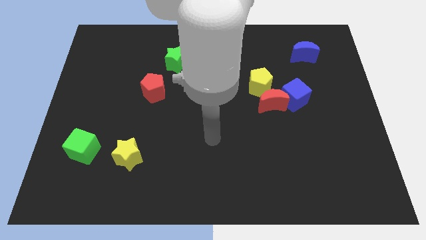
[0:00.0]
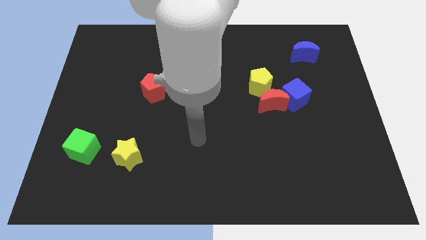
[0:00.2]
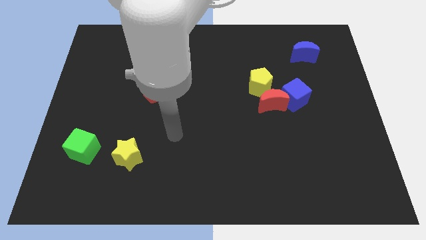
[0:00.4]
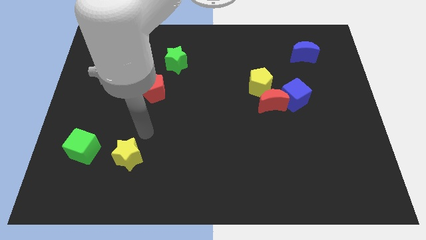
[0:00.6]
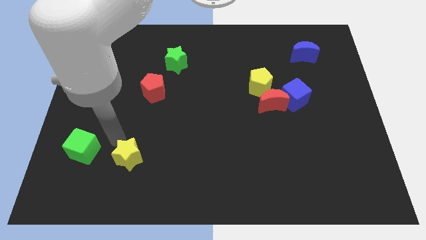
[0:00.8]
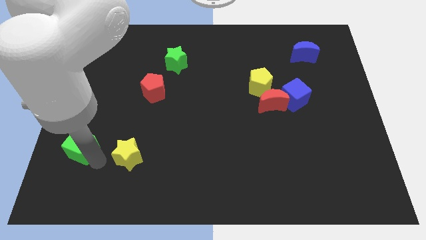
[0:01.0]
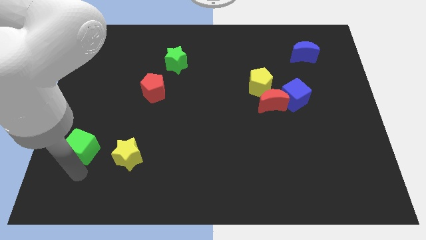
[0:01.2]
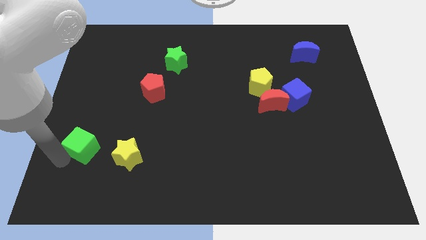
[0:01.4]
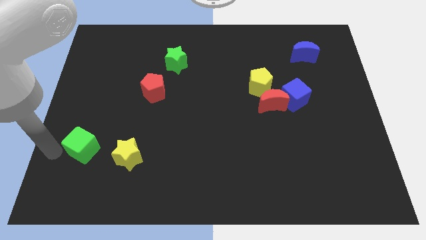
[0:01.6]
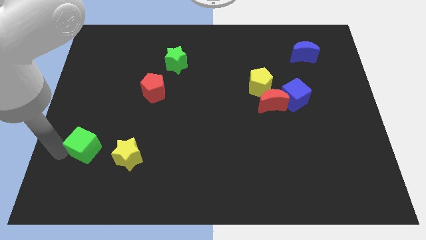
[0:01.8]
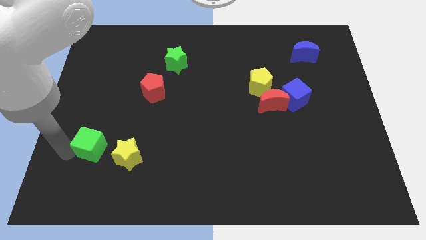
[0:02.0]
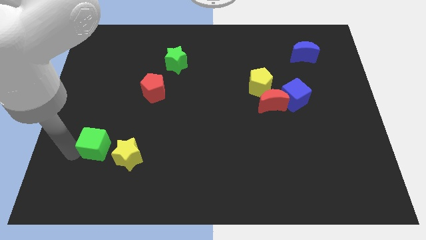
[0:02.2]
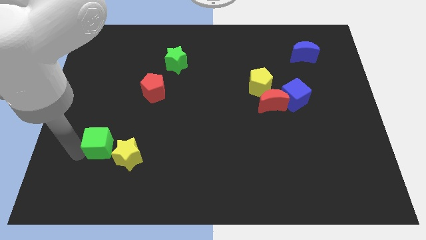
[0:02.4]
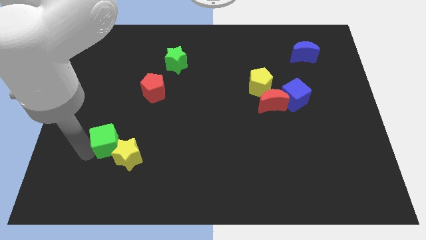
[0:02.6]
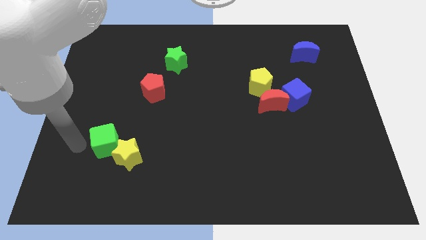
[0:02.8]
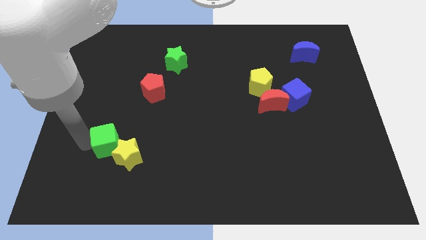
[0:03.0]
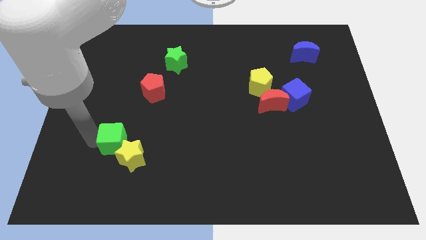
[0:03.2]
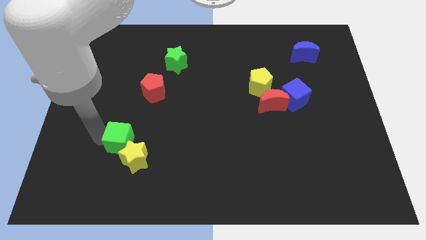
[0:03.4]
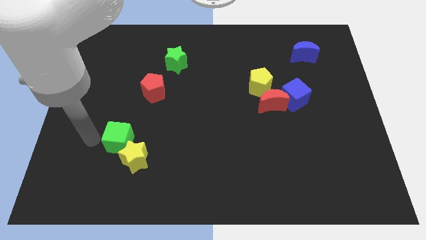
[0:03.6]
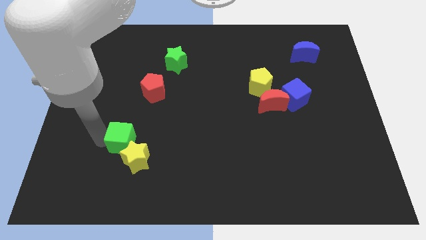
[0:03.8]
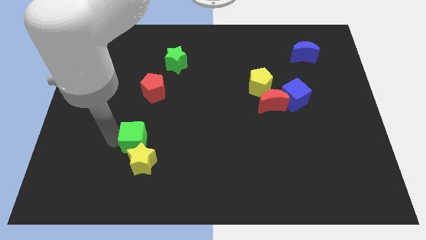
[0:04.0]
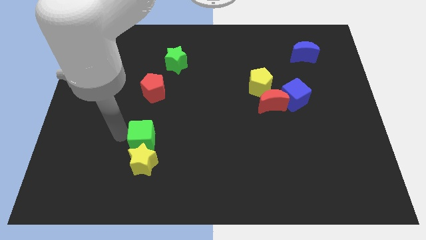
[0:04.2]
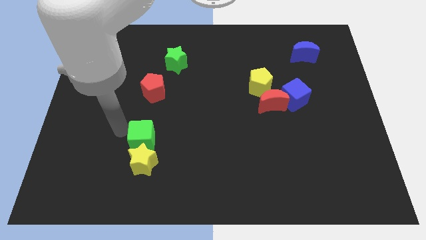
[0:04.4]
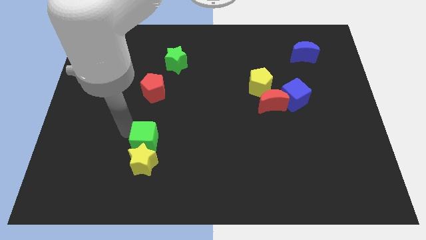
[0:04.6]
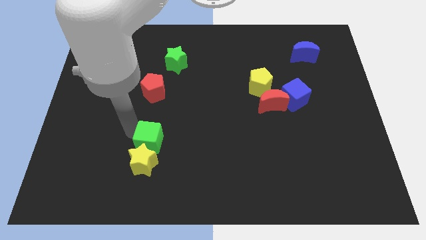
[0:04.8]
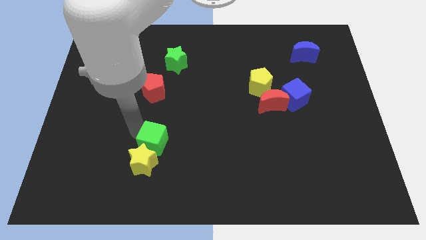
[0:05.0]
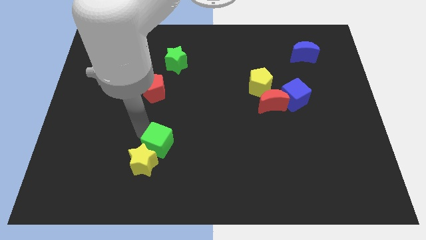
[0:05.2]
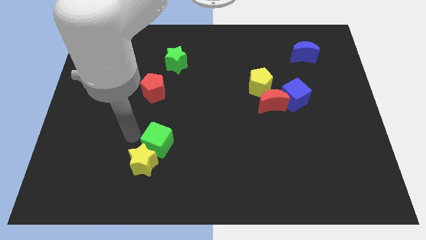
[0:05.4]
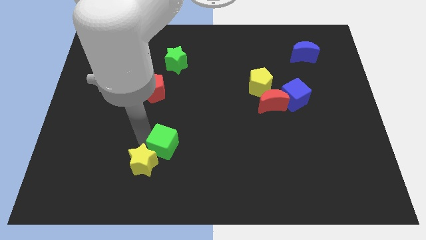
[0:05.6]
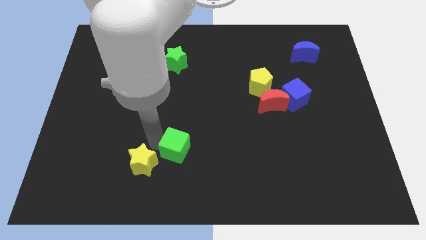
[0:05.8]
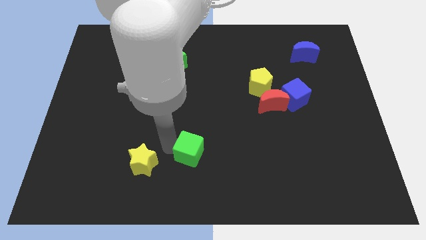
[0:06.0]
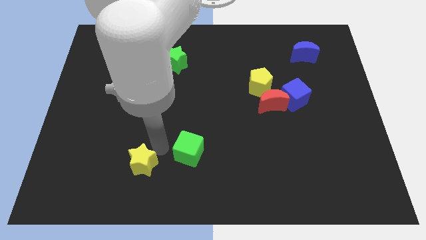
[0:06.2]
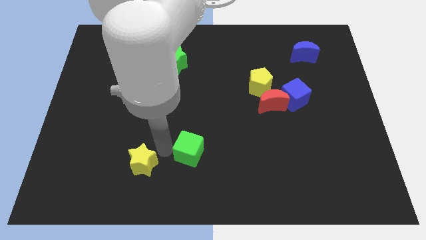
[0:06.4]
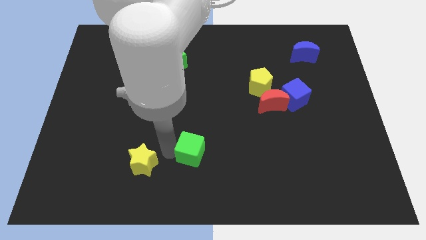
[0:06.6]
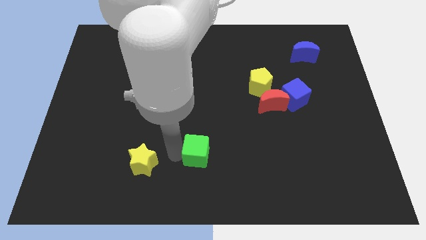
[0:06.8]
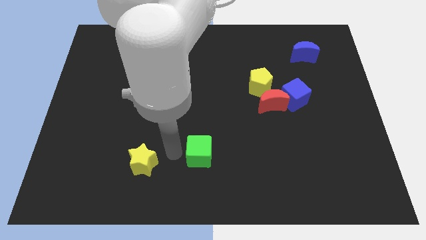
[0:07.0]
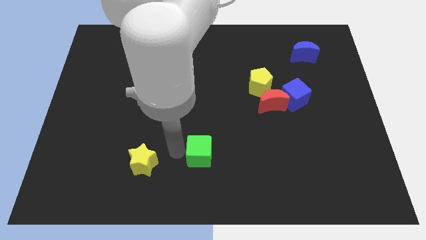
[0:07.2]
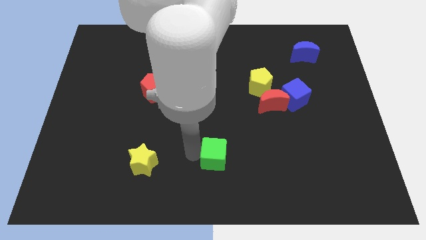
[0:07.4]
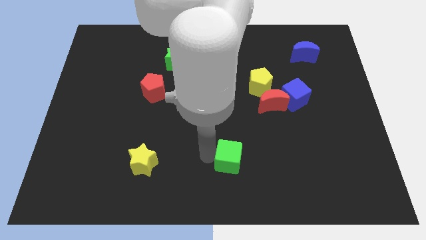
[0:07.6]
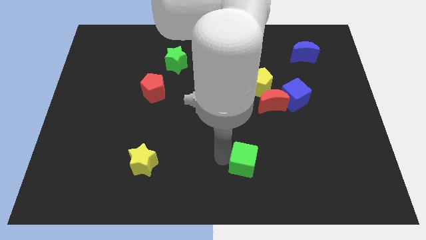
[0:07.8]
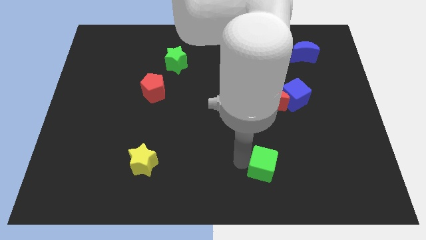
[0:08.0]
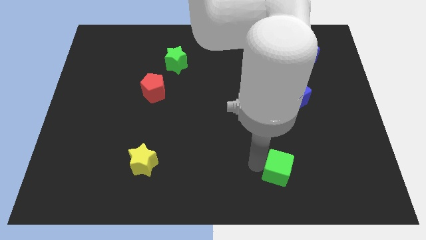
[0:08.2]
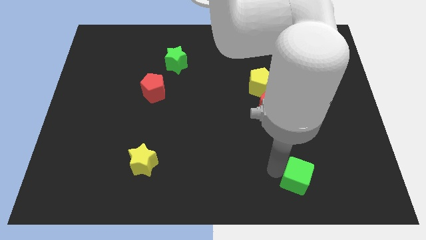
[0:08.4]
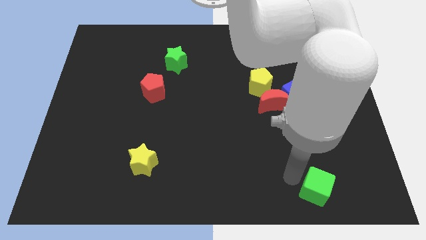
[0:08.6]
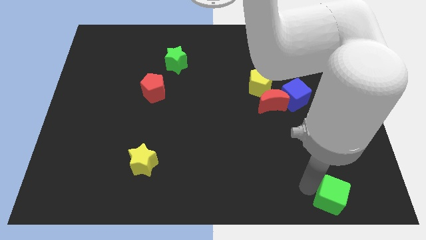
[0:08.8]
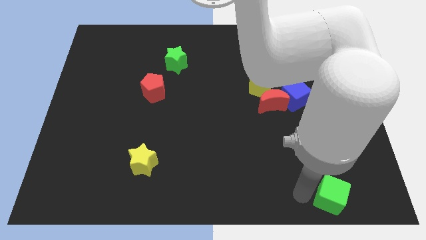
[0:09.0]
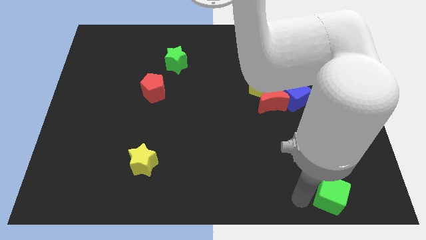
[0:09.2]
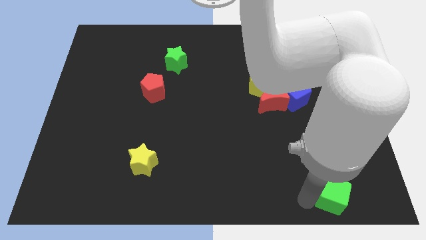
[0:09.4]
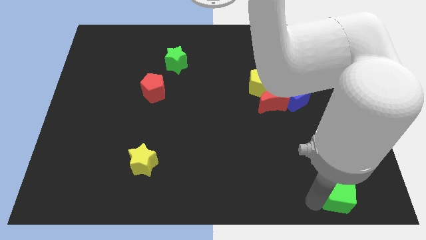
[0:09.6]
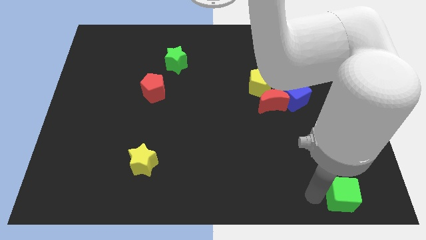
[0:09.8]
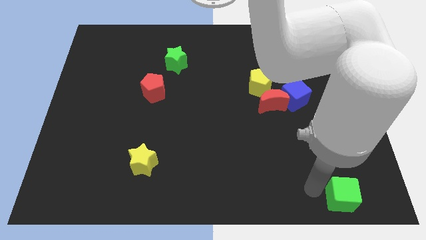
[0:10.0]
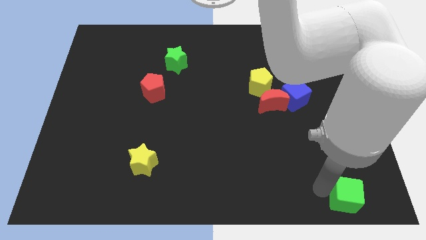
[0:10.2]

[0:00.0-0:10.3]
slide the green cube to the bottom right of the board

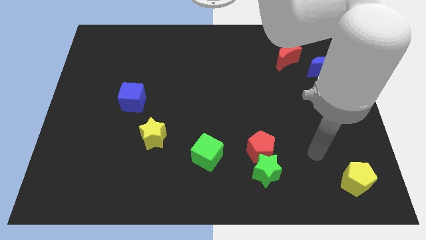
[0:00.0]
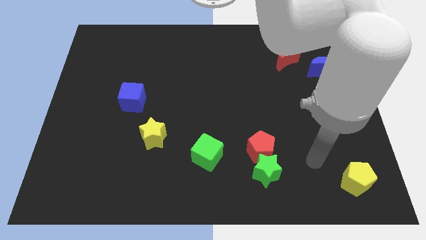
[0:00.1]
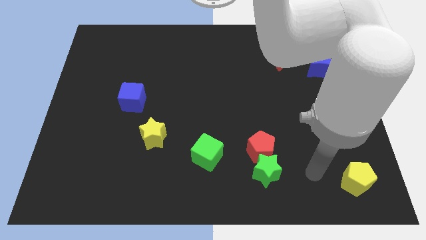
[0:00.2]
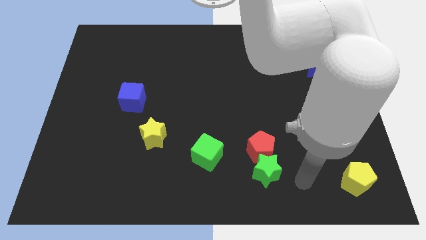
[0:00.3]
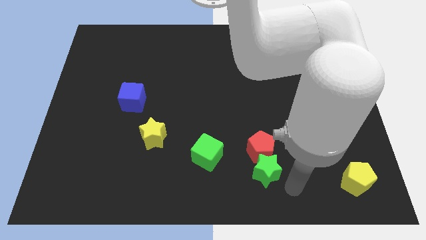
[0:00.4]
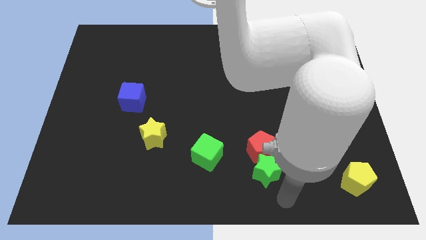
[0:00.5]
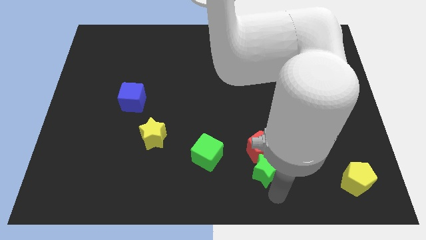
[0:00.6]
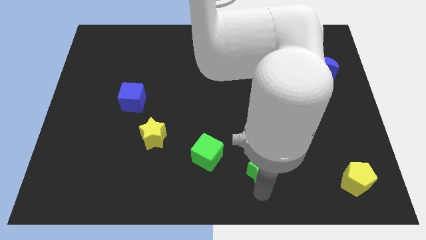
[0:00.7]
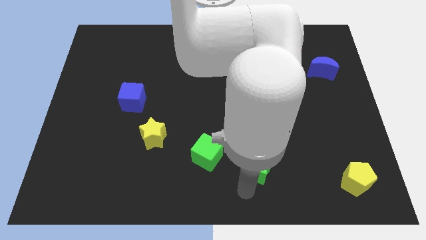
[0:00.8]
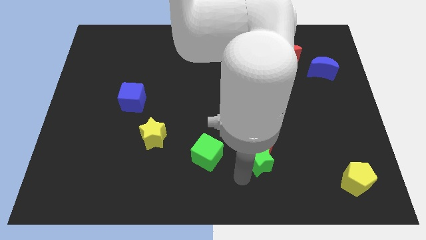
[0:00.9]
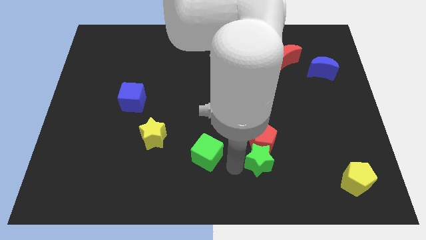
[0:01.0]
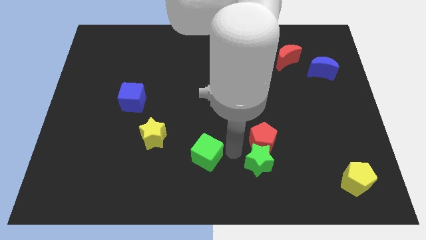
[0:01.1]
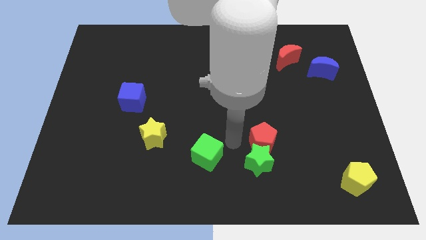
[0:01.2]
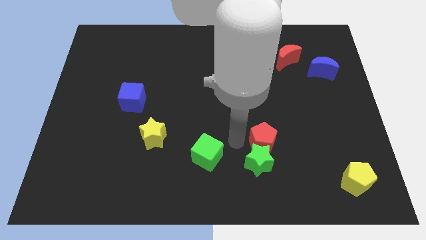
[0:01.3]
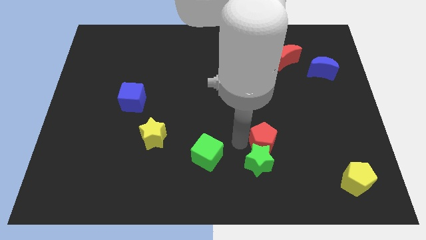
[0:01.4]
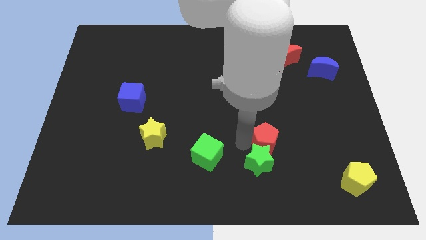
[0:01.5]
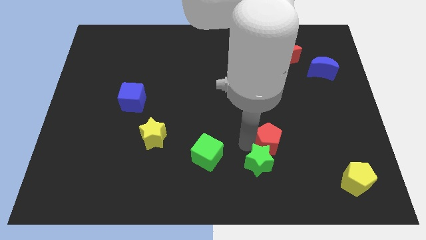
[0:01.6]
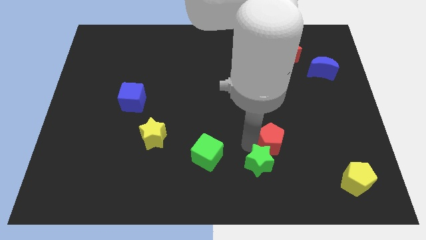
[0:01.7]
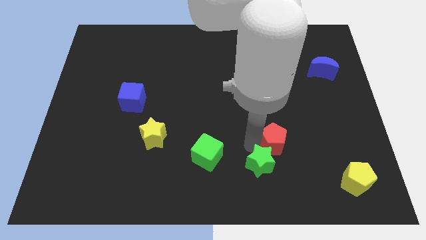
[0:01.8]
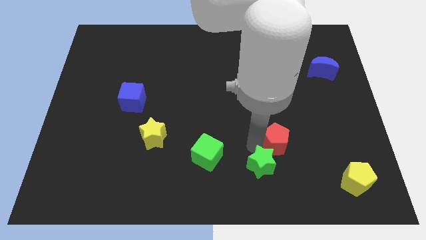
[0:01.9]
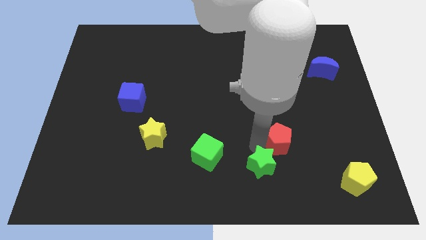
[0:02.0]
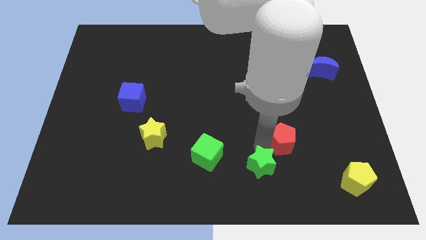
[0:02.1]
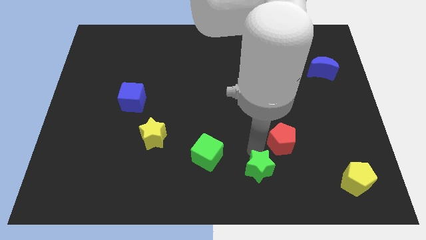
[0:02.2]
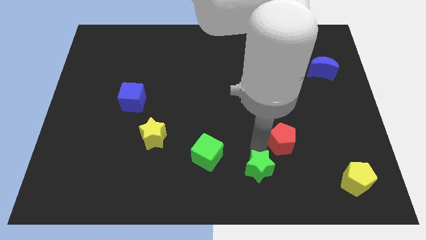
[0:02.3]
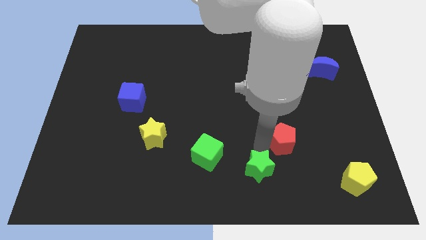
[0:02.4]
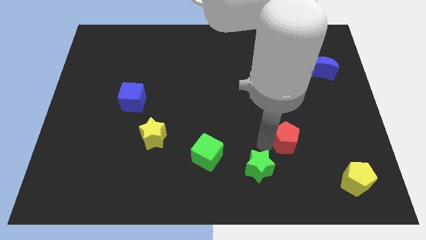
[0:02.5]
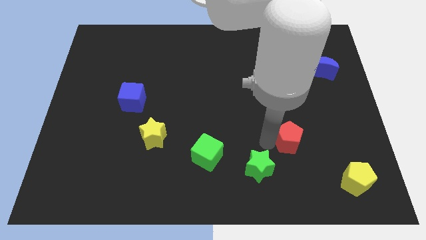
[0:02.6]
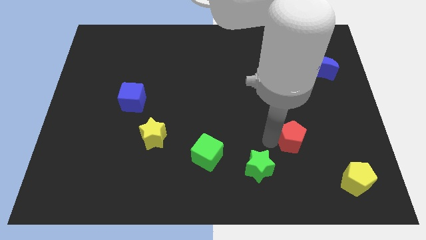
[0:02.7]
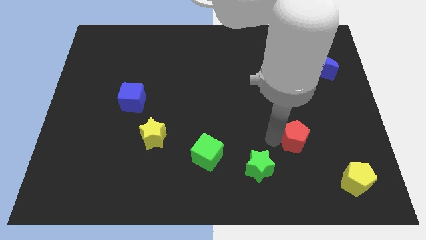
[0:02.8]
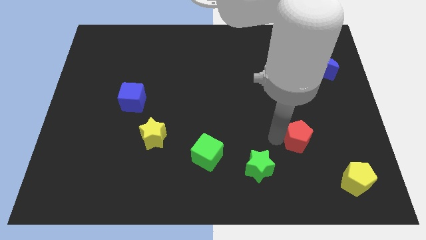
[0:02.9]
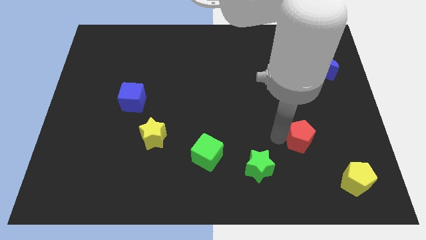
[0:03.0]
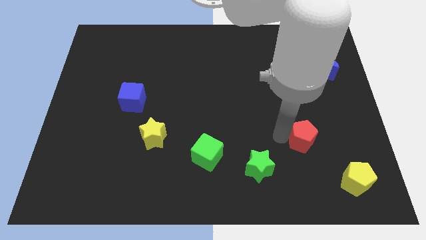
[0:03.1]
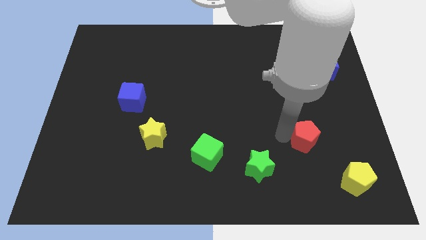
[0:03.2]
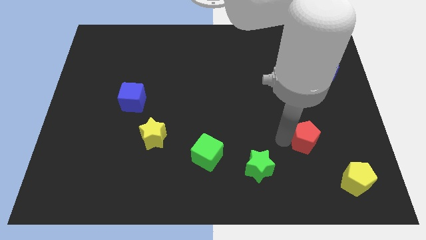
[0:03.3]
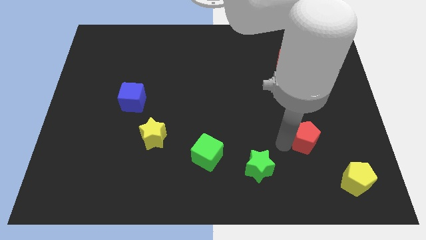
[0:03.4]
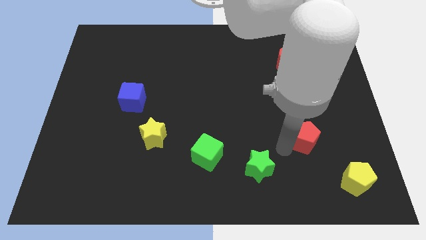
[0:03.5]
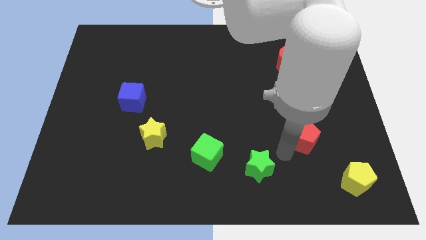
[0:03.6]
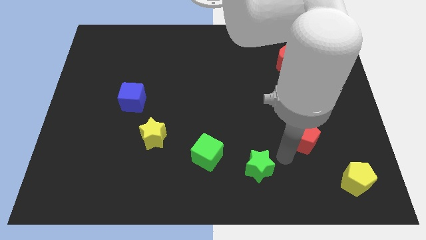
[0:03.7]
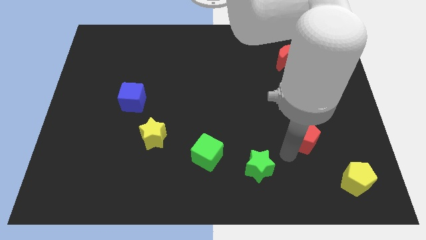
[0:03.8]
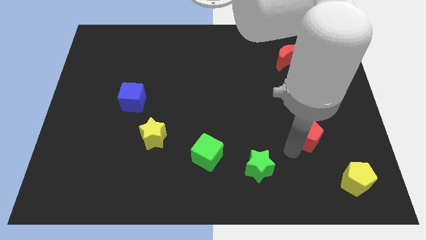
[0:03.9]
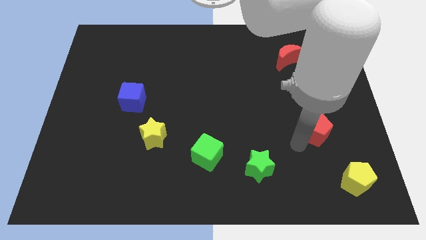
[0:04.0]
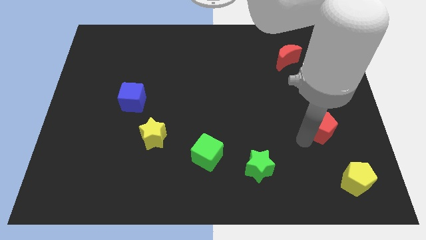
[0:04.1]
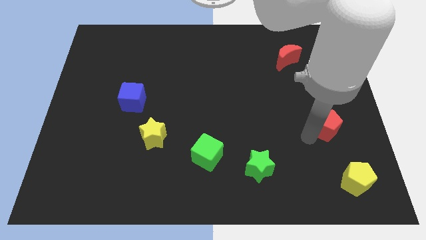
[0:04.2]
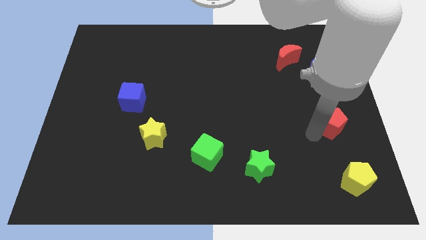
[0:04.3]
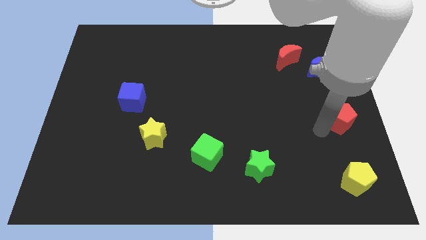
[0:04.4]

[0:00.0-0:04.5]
slide the red pentagon to the right side
